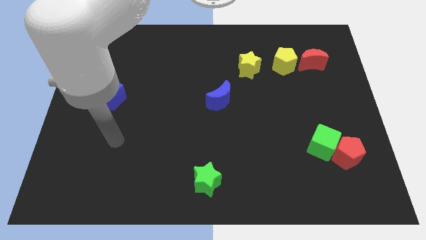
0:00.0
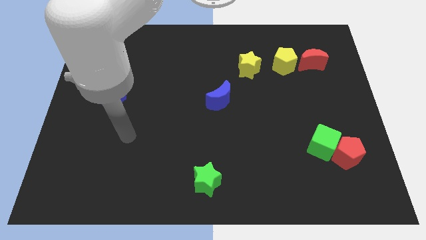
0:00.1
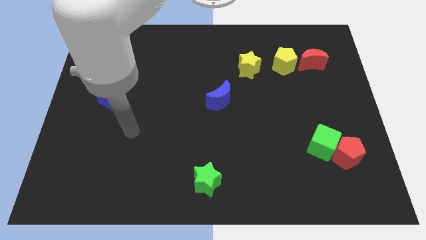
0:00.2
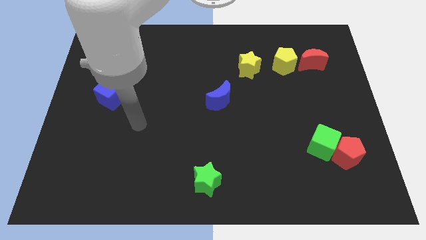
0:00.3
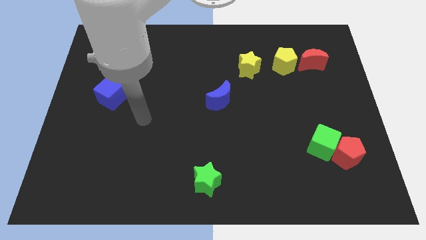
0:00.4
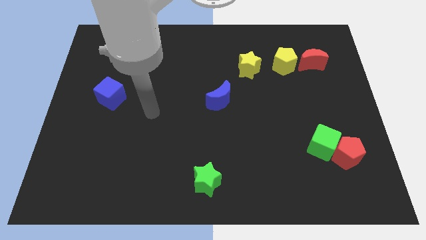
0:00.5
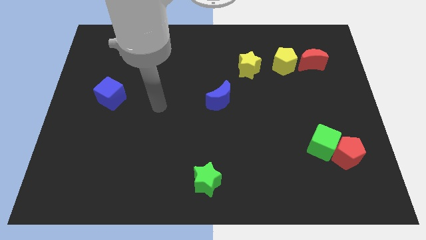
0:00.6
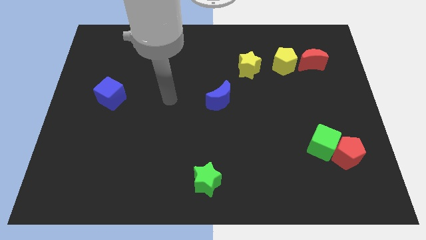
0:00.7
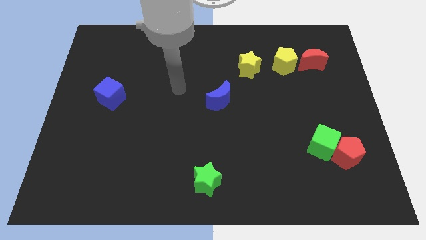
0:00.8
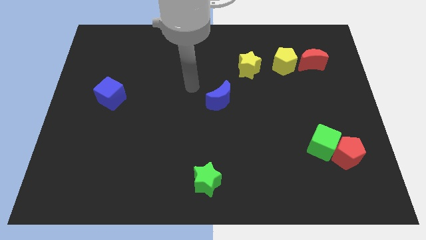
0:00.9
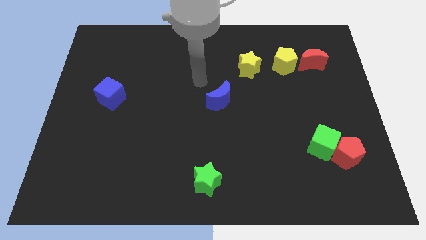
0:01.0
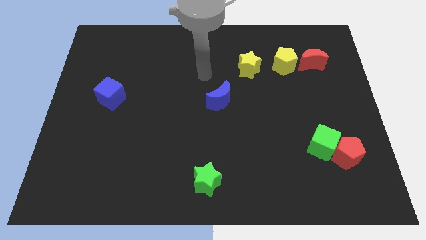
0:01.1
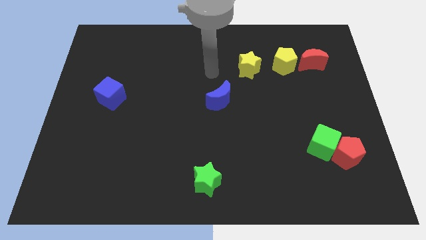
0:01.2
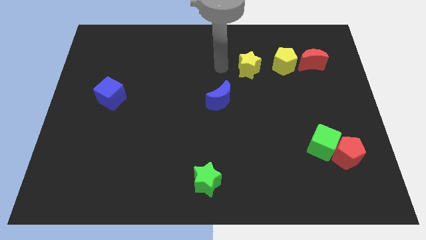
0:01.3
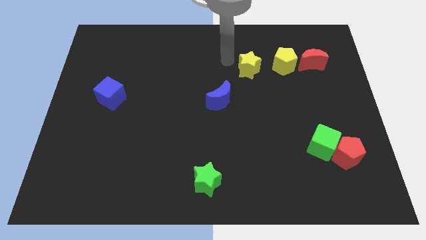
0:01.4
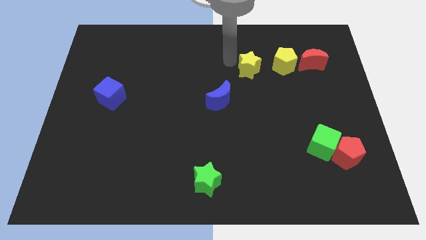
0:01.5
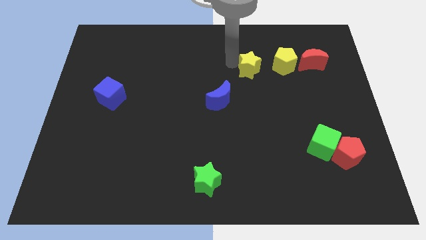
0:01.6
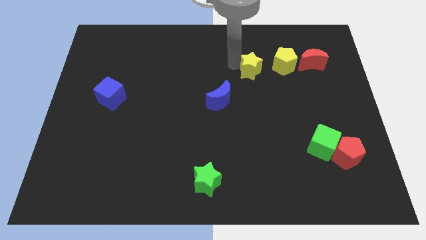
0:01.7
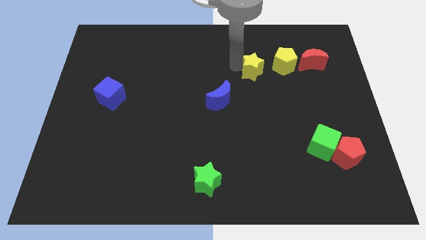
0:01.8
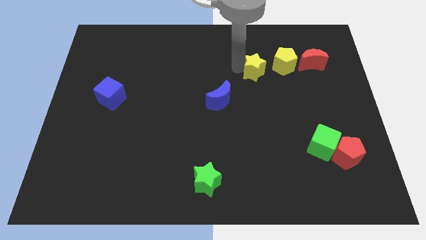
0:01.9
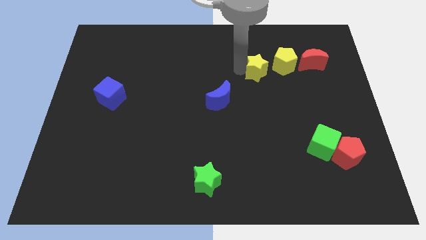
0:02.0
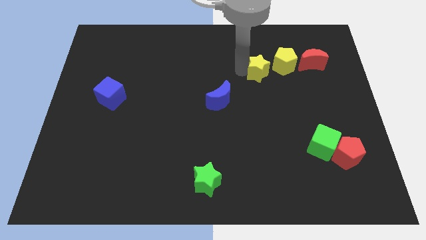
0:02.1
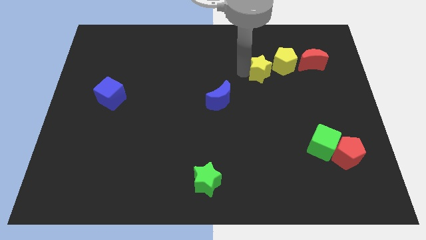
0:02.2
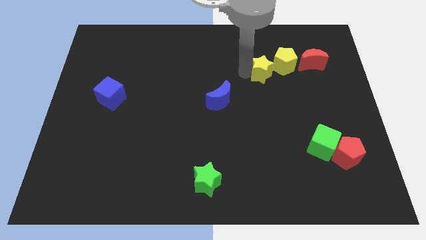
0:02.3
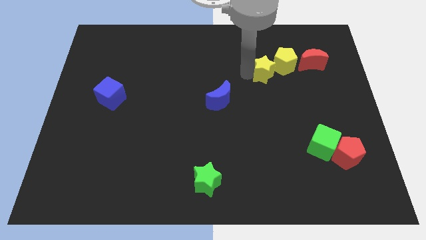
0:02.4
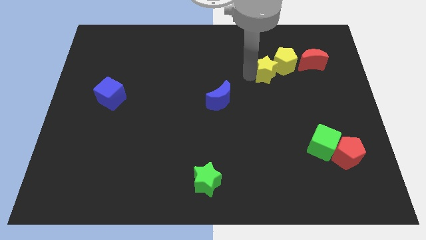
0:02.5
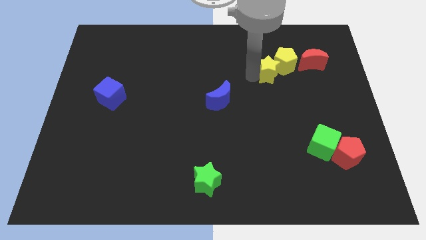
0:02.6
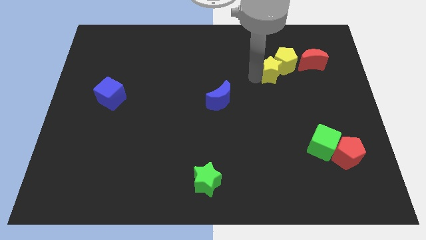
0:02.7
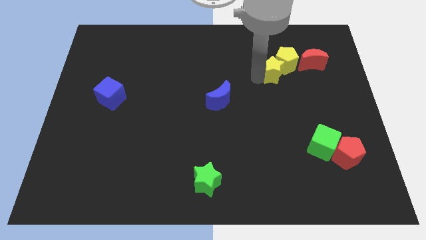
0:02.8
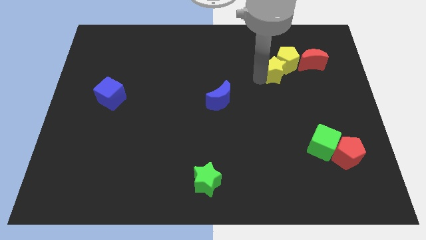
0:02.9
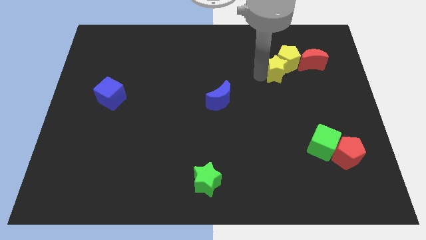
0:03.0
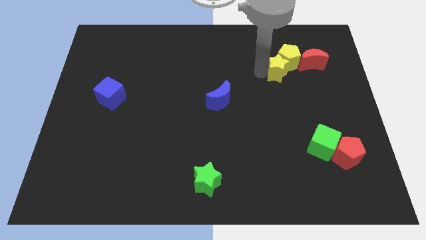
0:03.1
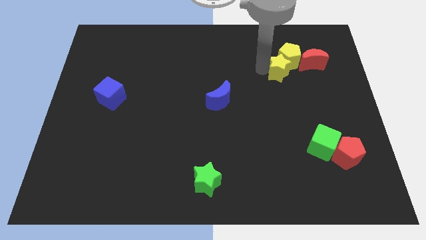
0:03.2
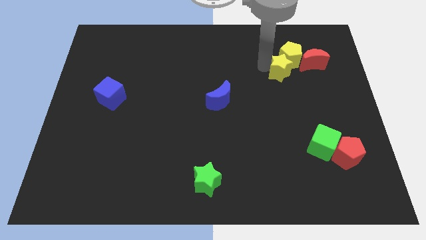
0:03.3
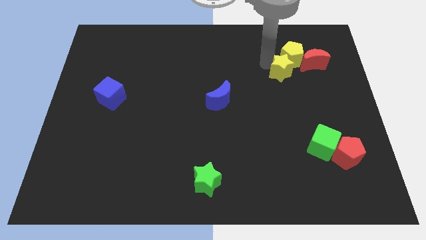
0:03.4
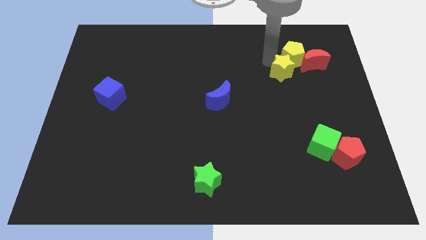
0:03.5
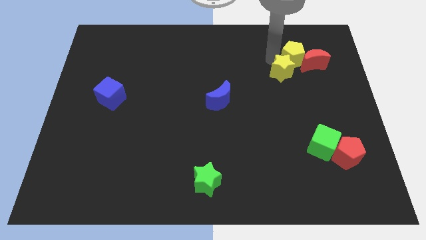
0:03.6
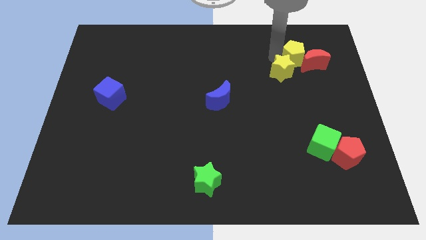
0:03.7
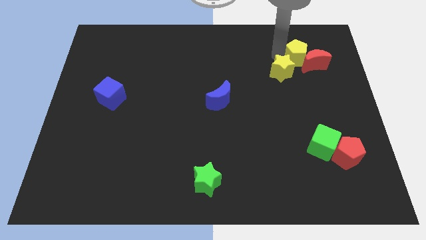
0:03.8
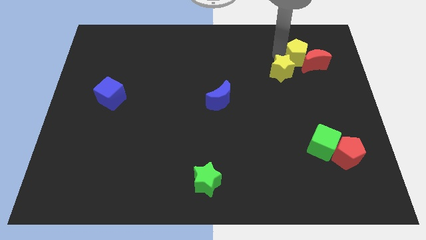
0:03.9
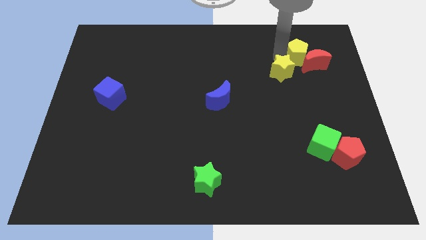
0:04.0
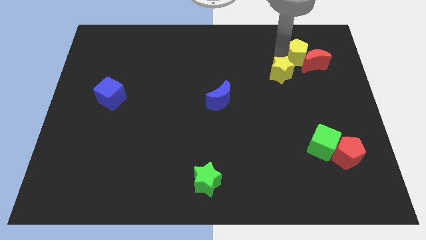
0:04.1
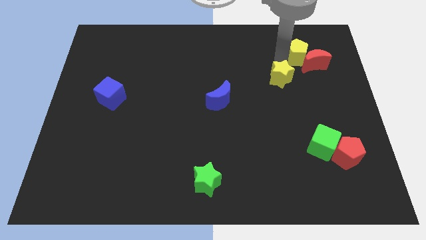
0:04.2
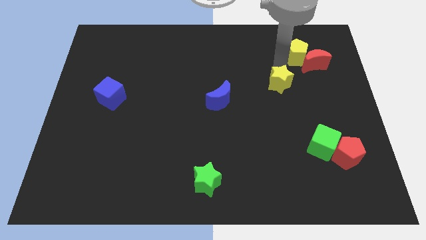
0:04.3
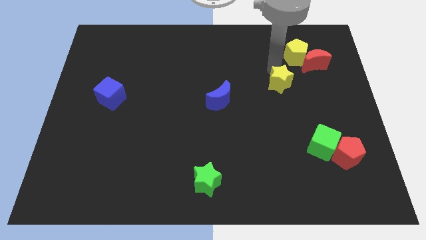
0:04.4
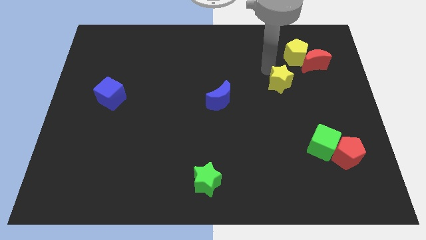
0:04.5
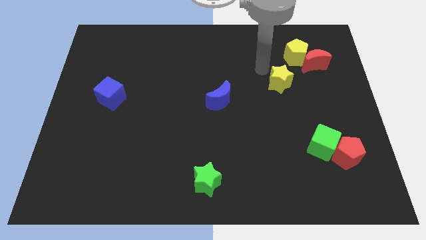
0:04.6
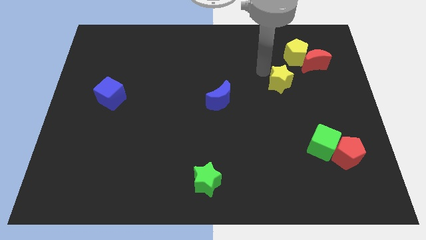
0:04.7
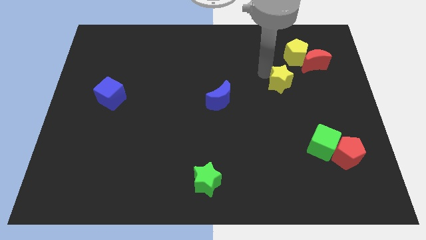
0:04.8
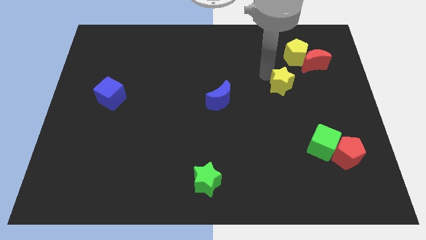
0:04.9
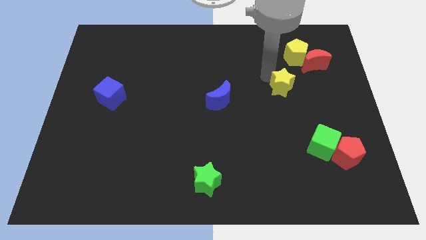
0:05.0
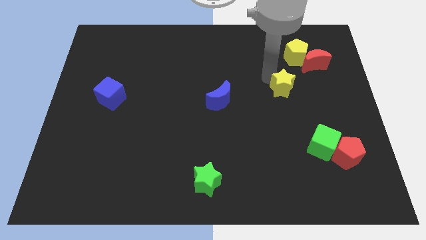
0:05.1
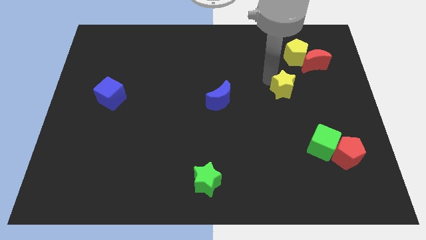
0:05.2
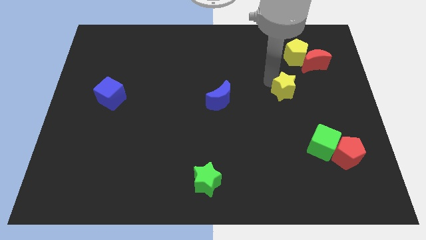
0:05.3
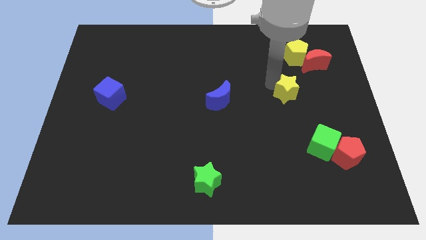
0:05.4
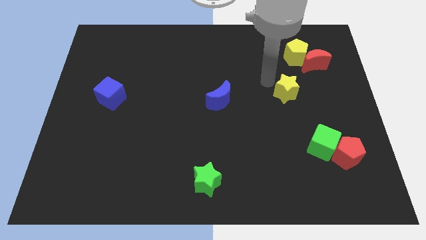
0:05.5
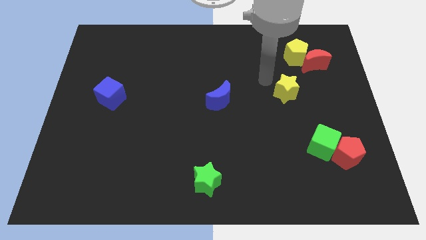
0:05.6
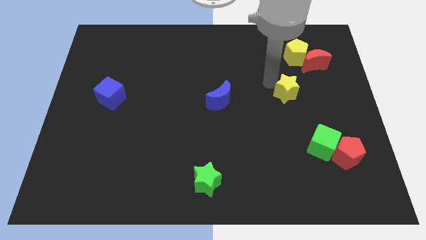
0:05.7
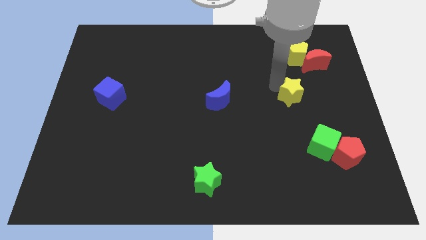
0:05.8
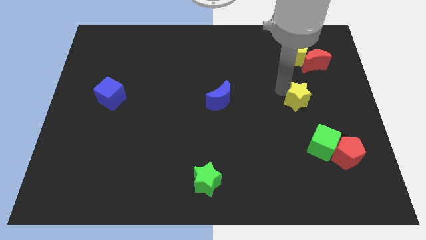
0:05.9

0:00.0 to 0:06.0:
put the yellow star above the green cube
